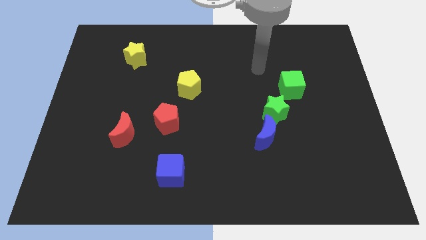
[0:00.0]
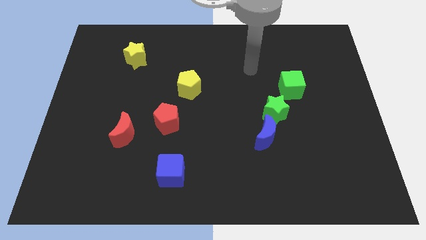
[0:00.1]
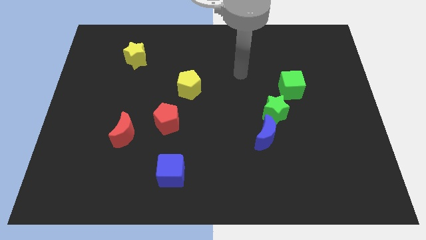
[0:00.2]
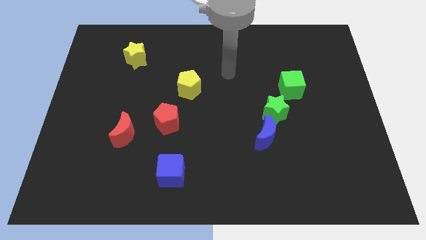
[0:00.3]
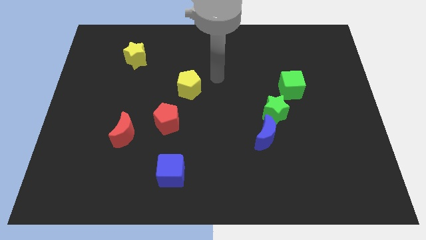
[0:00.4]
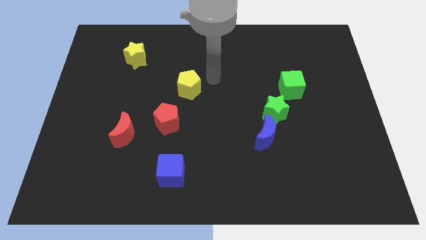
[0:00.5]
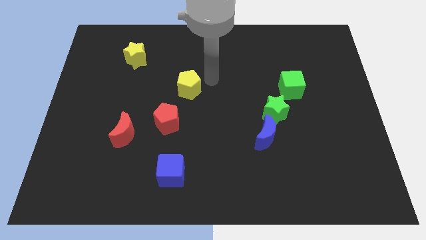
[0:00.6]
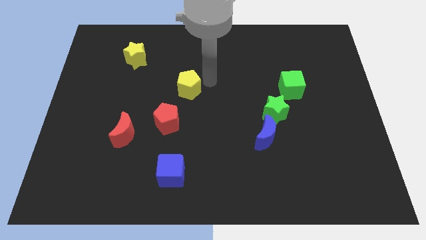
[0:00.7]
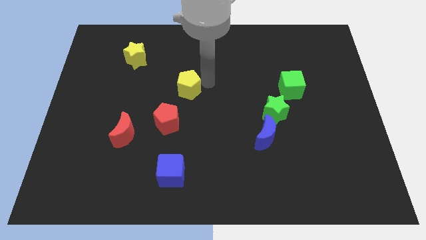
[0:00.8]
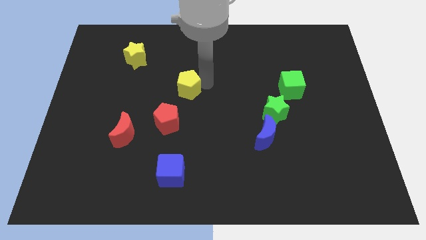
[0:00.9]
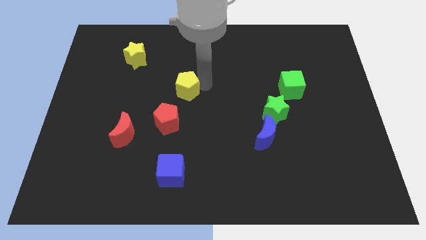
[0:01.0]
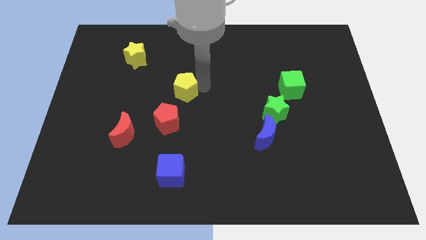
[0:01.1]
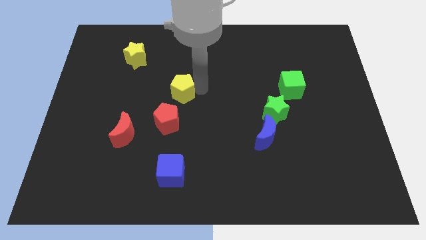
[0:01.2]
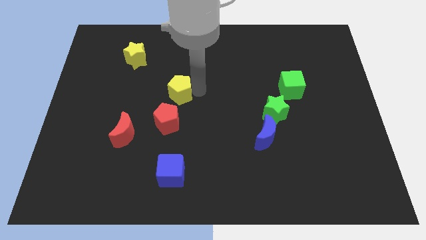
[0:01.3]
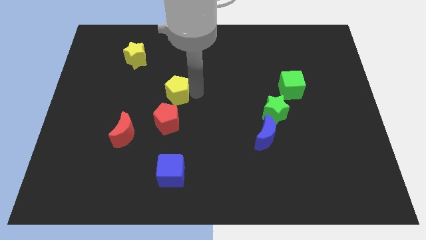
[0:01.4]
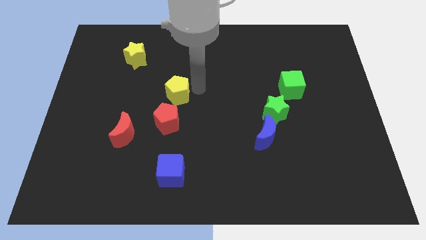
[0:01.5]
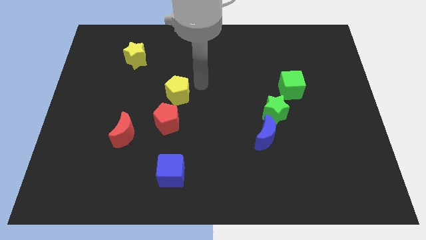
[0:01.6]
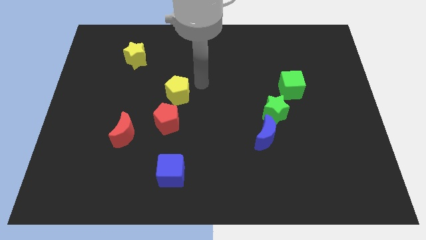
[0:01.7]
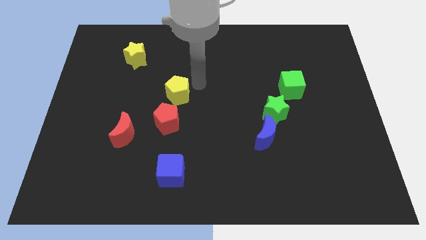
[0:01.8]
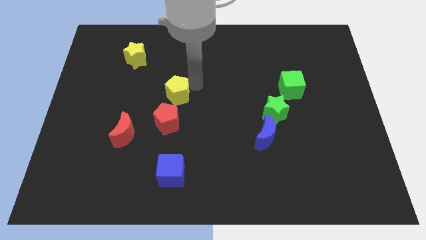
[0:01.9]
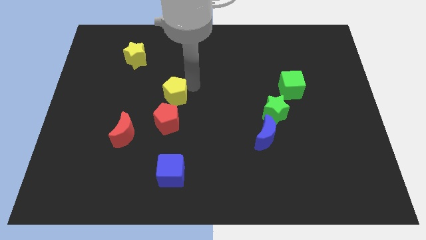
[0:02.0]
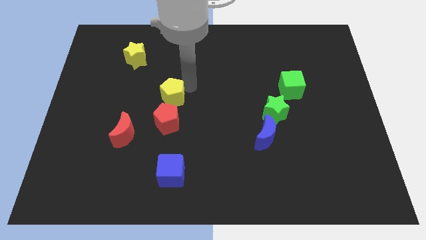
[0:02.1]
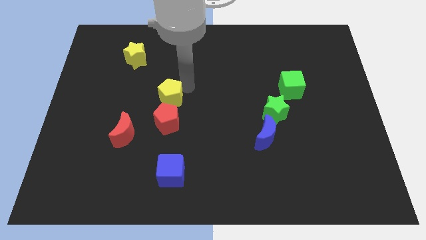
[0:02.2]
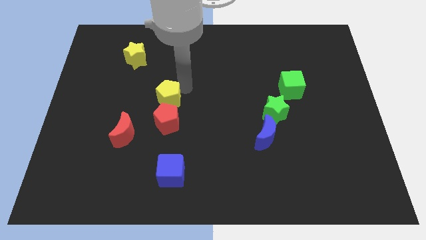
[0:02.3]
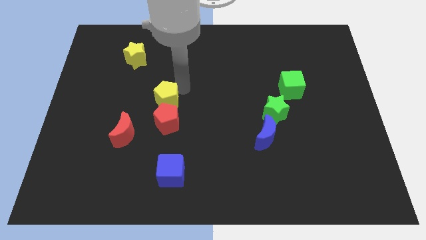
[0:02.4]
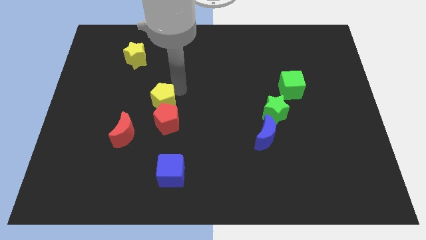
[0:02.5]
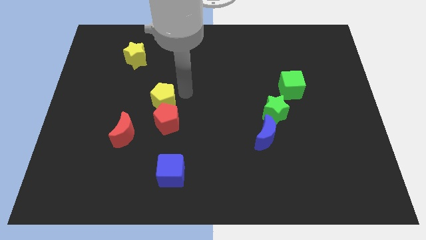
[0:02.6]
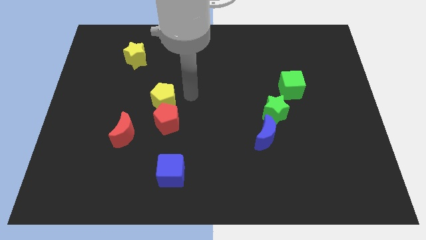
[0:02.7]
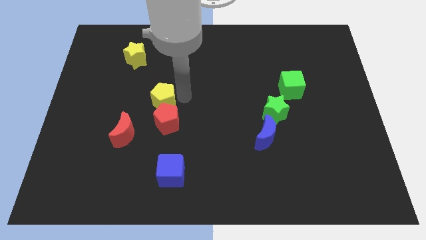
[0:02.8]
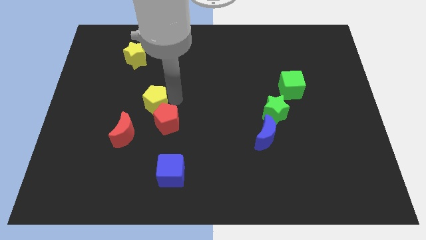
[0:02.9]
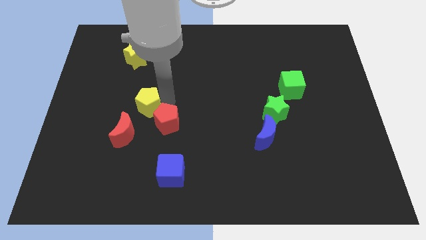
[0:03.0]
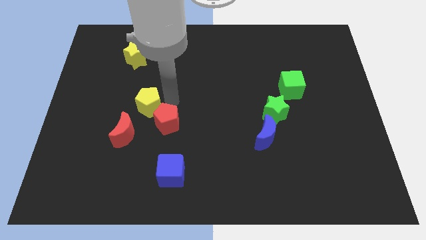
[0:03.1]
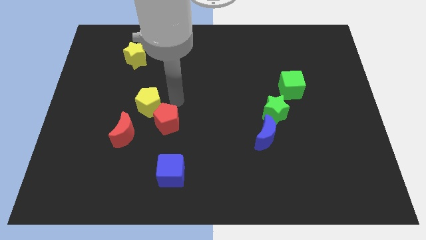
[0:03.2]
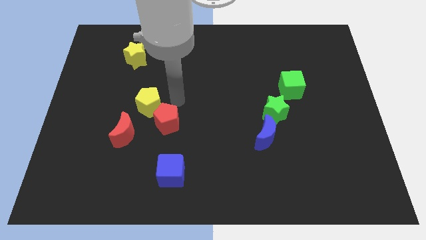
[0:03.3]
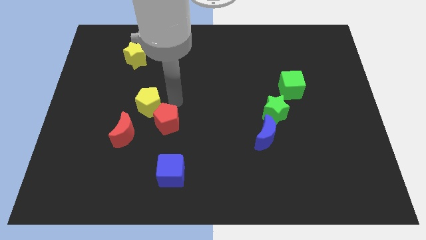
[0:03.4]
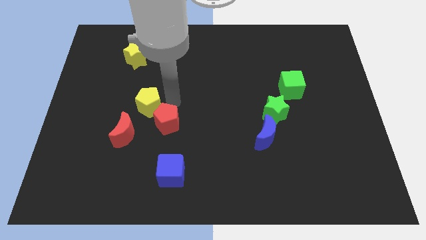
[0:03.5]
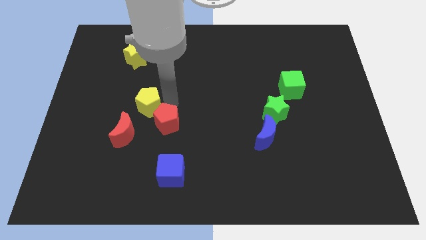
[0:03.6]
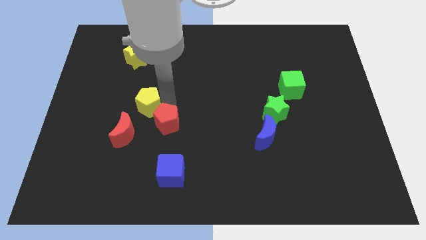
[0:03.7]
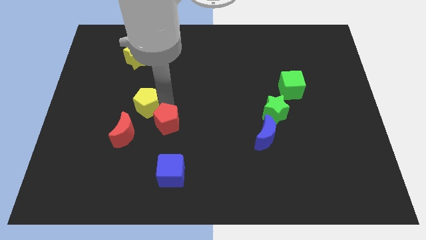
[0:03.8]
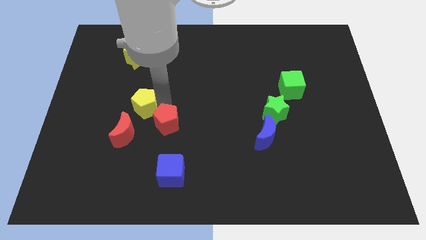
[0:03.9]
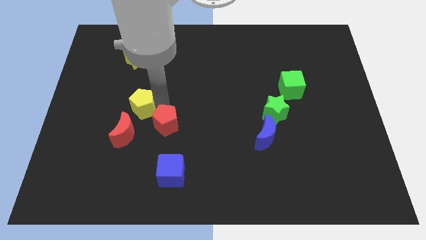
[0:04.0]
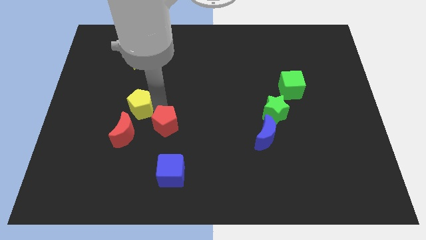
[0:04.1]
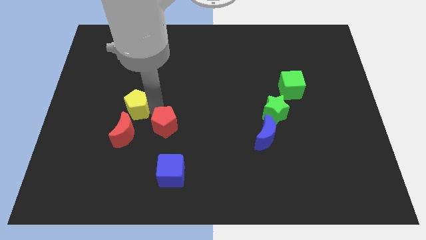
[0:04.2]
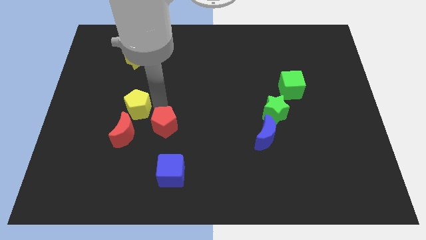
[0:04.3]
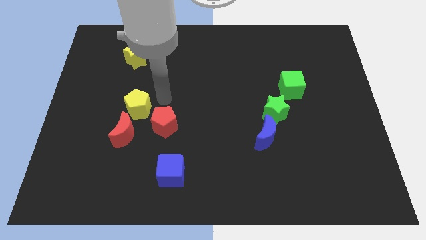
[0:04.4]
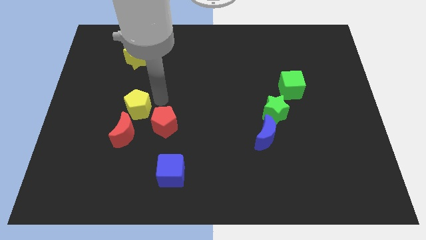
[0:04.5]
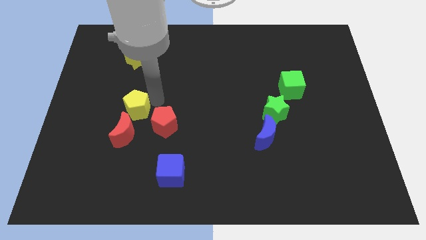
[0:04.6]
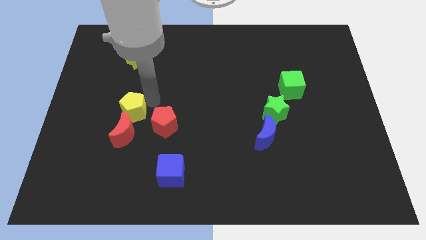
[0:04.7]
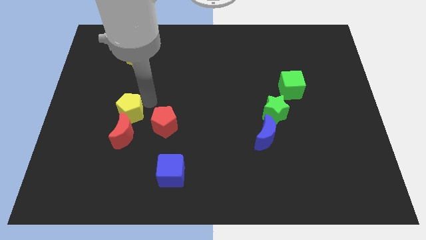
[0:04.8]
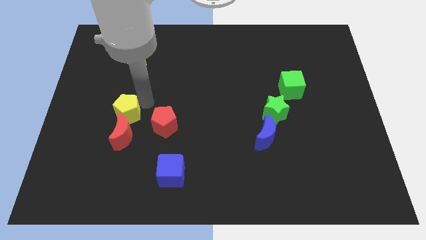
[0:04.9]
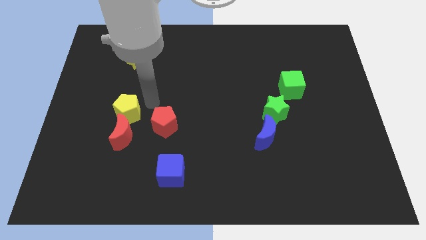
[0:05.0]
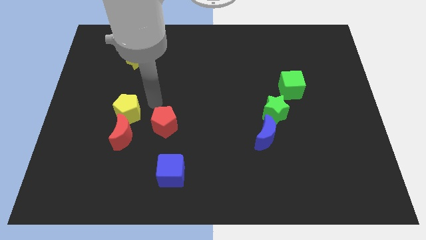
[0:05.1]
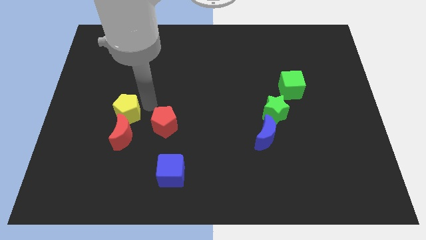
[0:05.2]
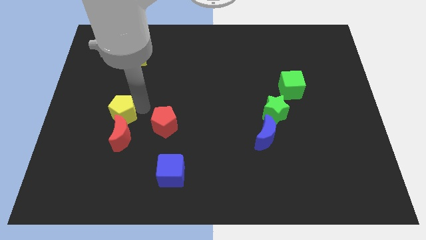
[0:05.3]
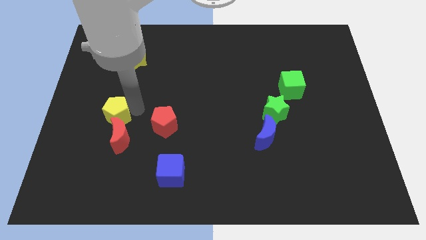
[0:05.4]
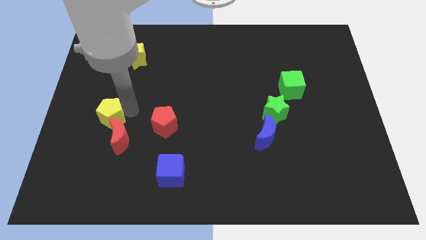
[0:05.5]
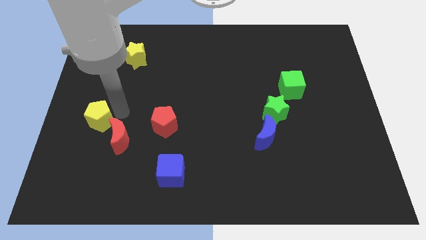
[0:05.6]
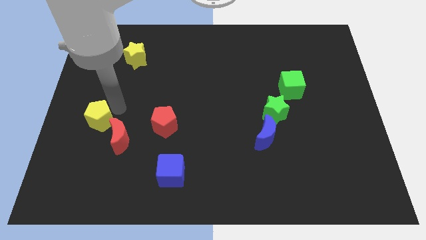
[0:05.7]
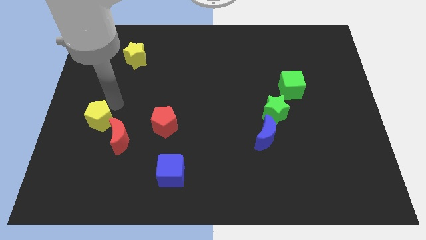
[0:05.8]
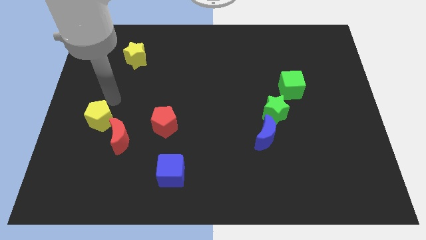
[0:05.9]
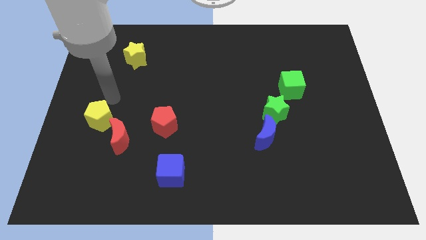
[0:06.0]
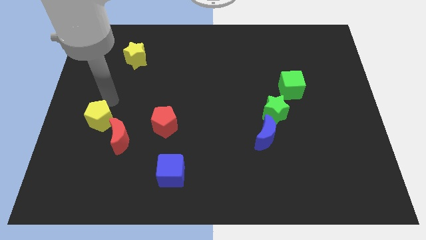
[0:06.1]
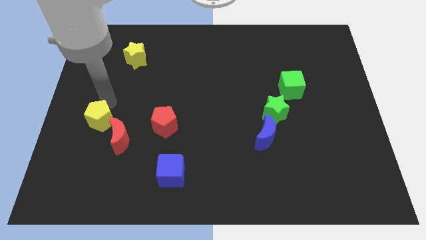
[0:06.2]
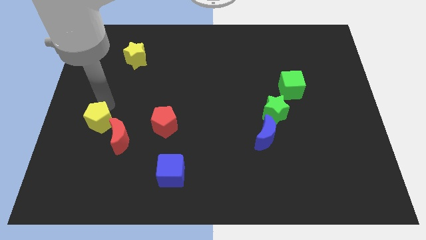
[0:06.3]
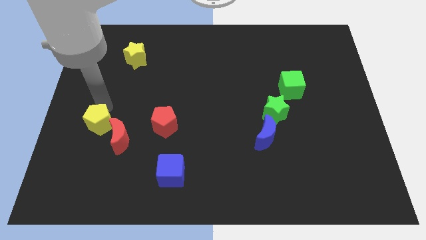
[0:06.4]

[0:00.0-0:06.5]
slide the yellow pentagon downwards and left

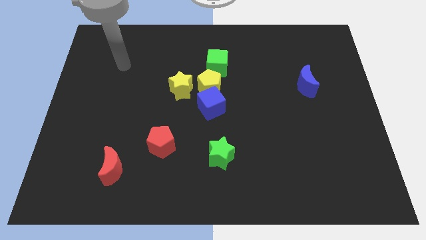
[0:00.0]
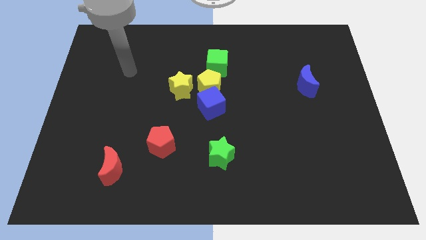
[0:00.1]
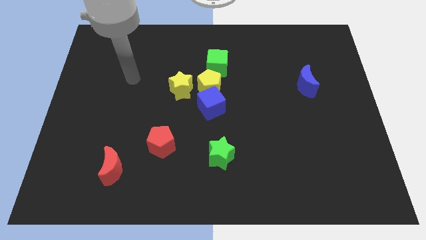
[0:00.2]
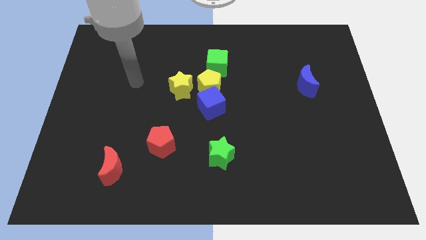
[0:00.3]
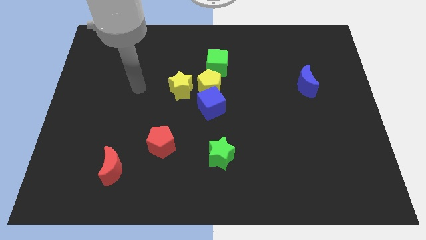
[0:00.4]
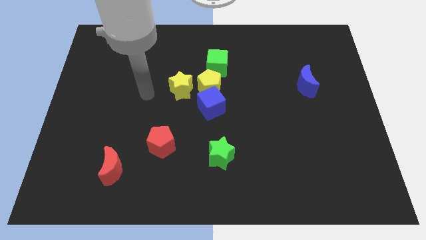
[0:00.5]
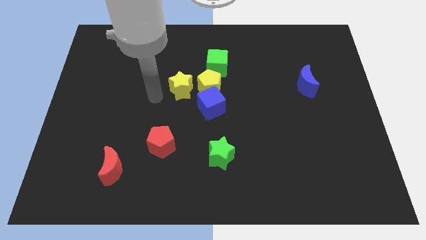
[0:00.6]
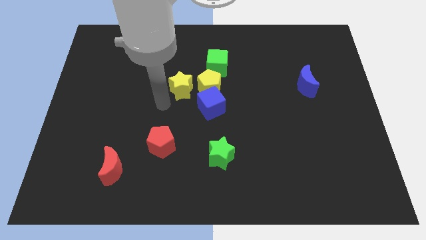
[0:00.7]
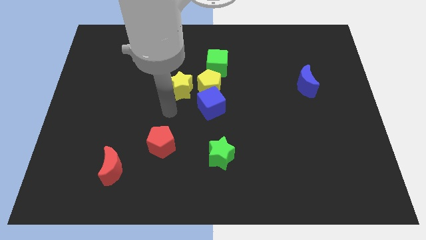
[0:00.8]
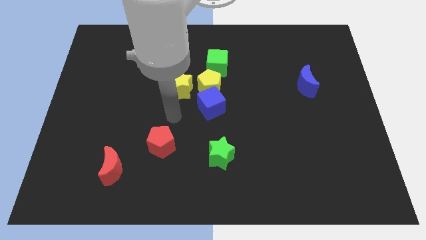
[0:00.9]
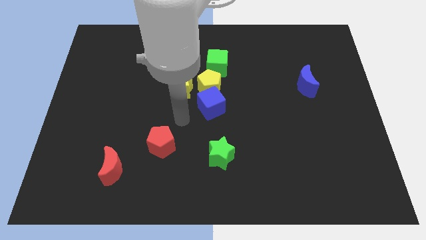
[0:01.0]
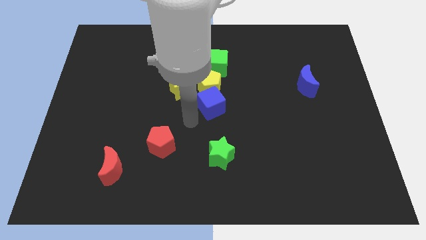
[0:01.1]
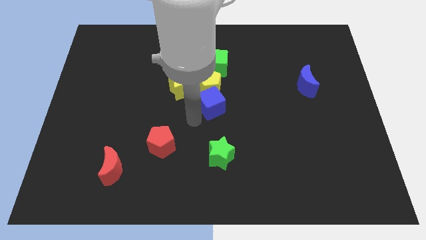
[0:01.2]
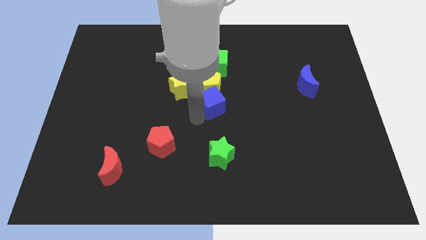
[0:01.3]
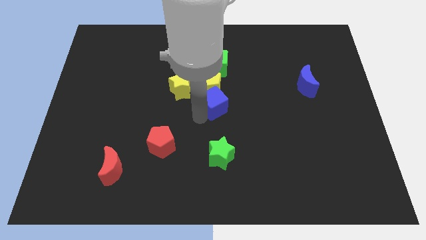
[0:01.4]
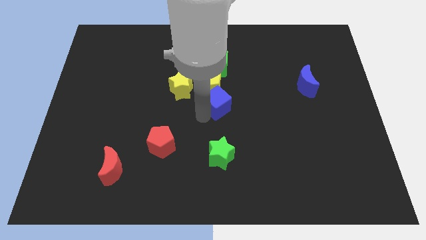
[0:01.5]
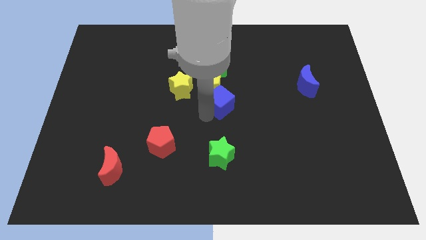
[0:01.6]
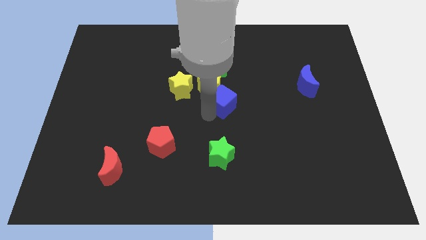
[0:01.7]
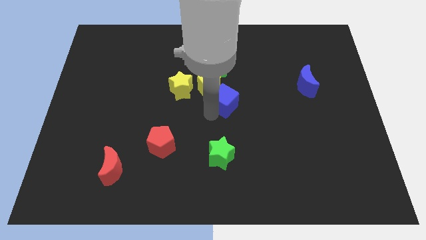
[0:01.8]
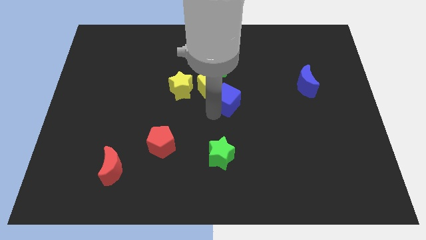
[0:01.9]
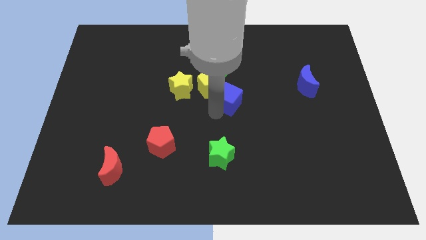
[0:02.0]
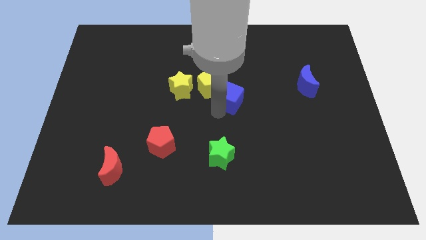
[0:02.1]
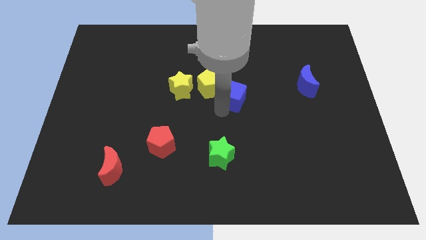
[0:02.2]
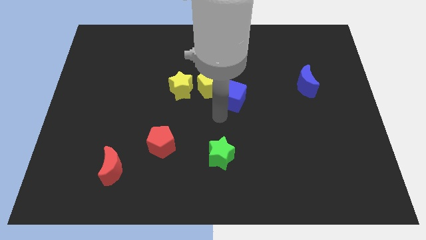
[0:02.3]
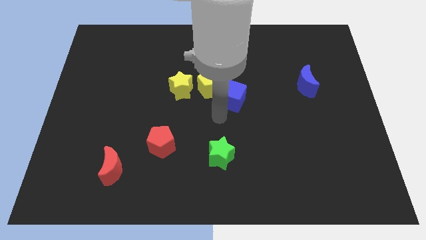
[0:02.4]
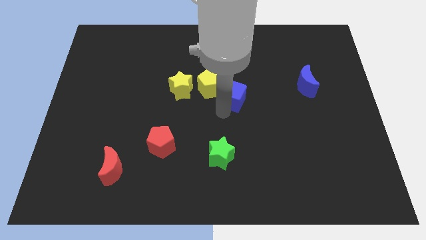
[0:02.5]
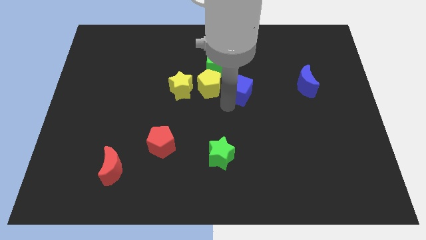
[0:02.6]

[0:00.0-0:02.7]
push the blue cube up and right diagonally slightly
